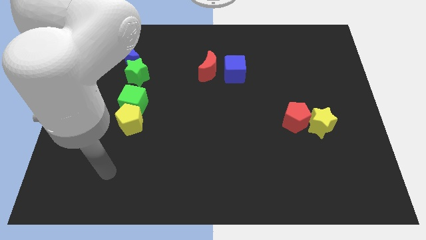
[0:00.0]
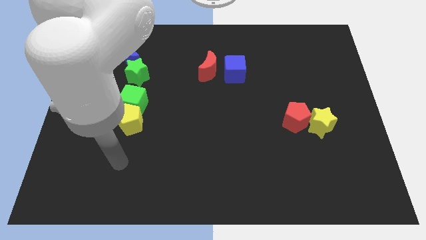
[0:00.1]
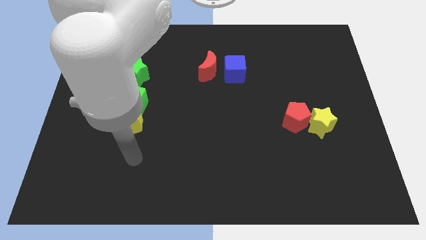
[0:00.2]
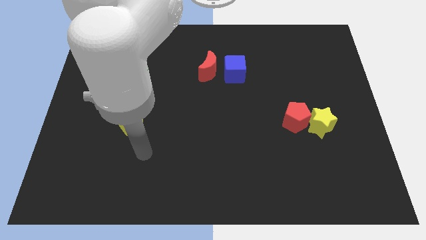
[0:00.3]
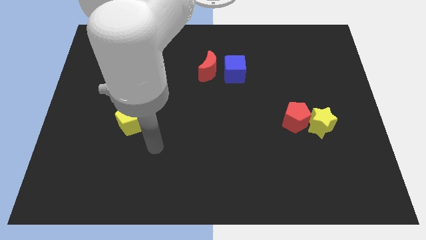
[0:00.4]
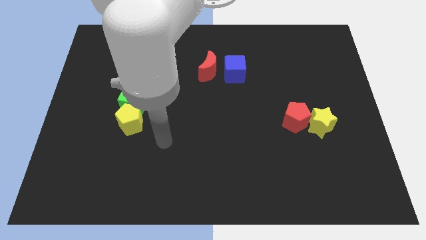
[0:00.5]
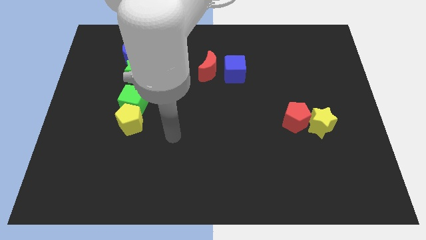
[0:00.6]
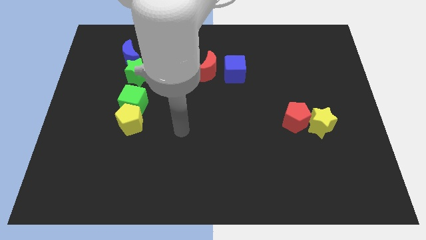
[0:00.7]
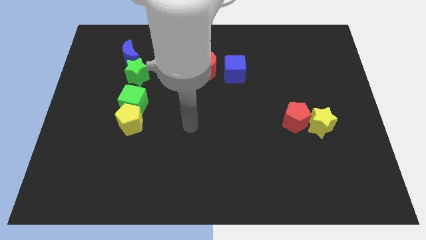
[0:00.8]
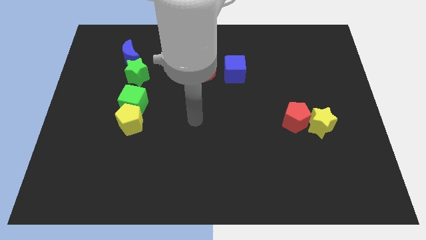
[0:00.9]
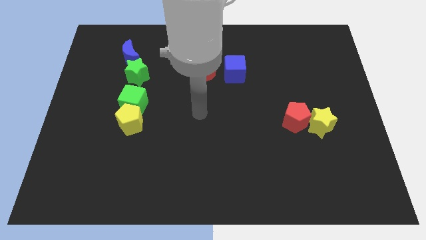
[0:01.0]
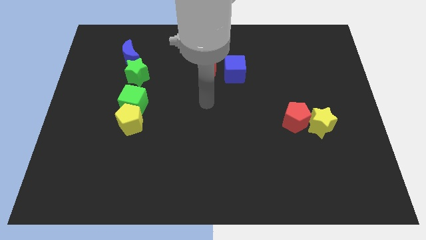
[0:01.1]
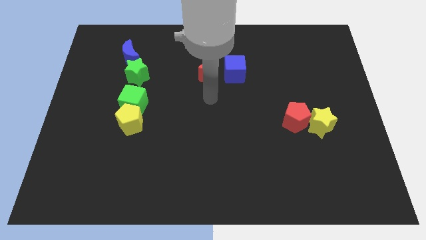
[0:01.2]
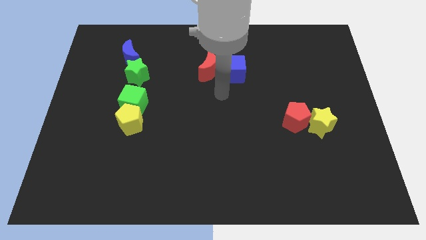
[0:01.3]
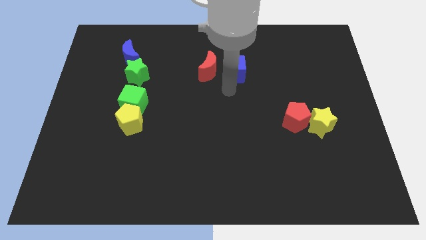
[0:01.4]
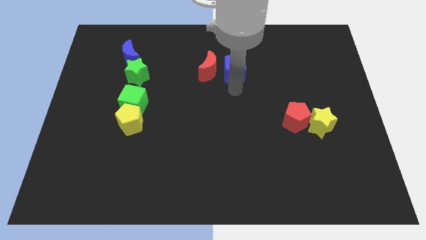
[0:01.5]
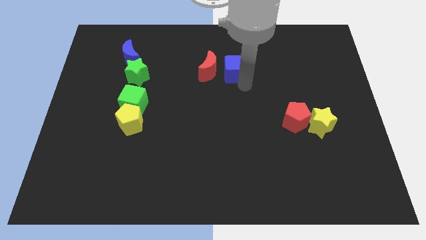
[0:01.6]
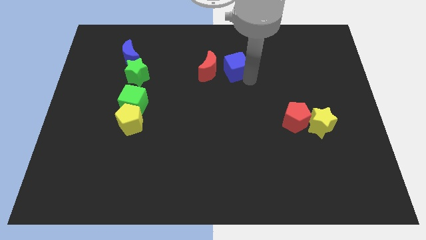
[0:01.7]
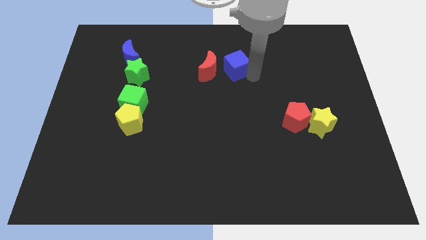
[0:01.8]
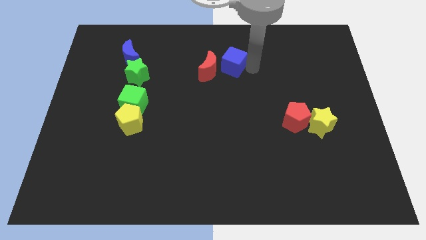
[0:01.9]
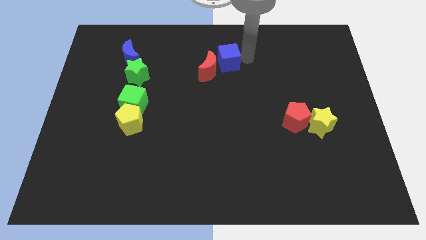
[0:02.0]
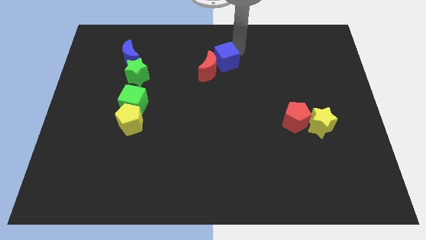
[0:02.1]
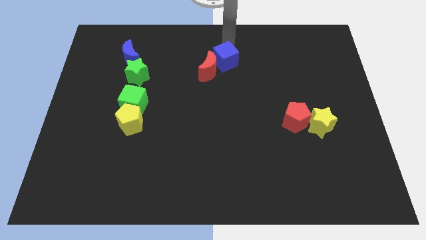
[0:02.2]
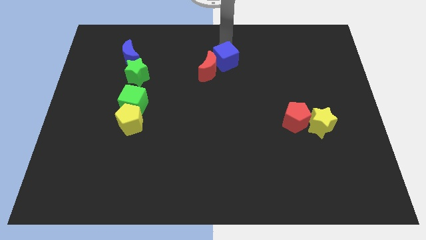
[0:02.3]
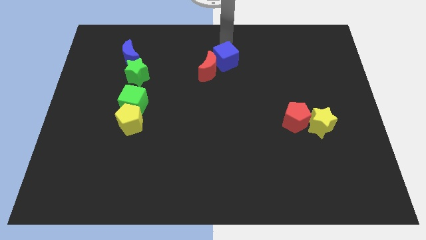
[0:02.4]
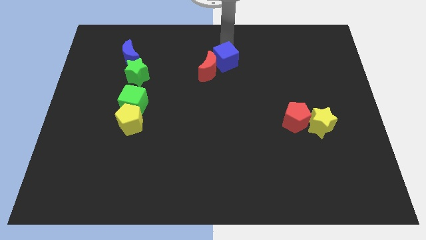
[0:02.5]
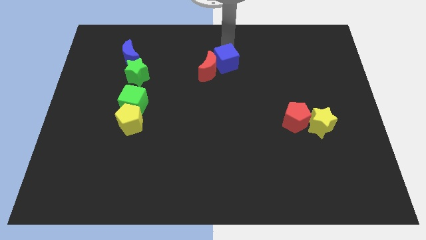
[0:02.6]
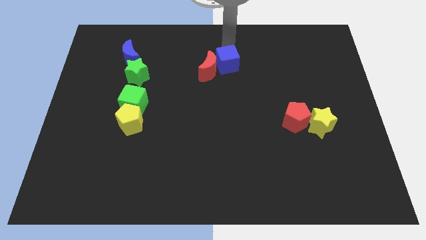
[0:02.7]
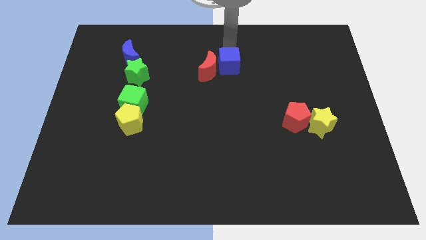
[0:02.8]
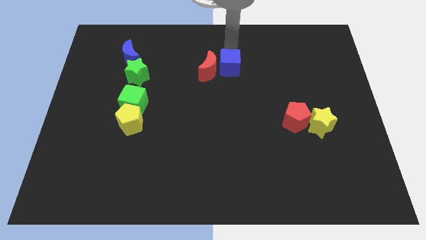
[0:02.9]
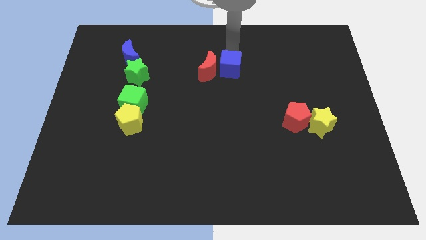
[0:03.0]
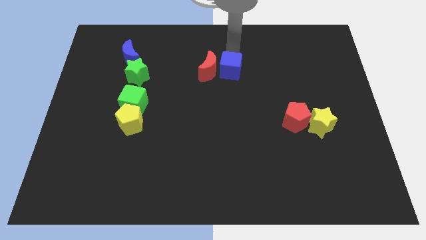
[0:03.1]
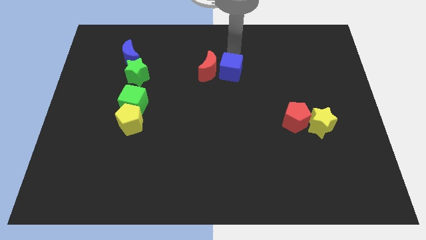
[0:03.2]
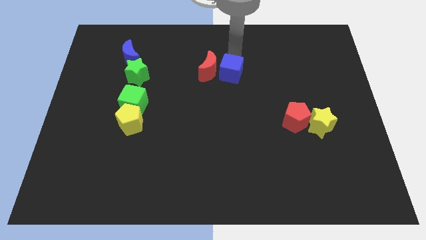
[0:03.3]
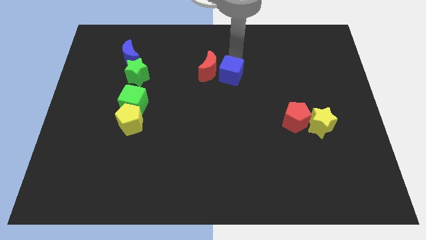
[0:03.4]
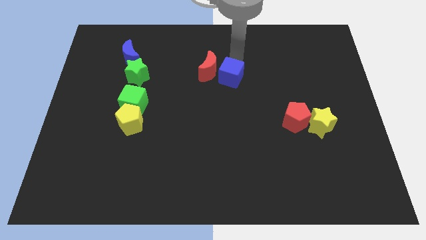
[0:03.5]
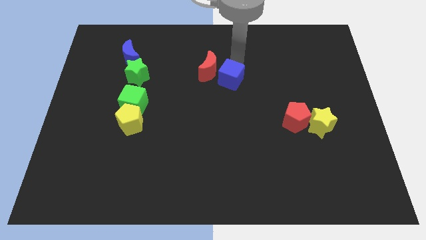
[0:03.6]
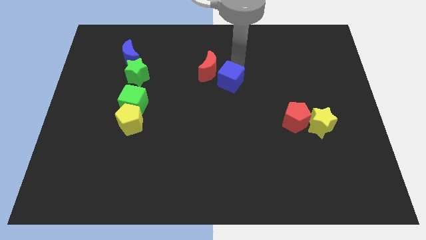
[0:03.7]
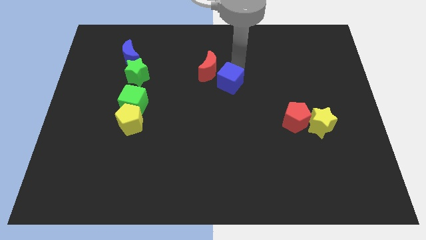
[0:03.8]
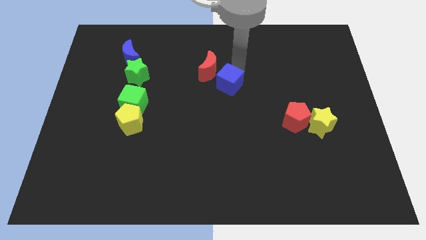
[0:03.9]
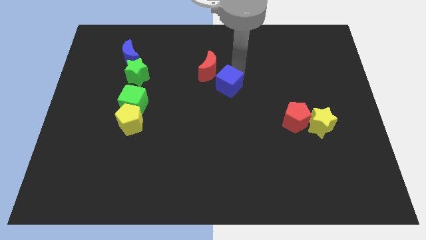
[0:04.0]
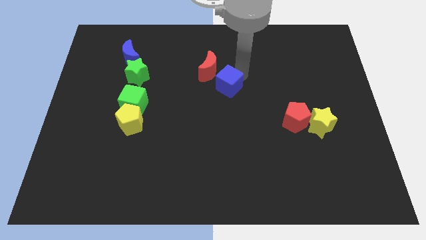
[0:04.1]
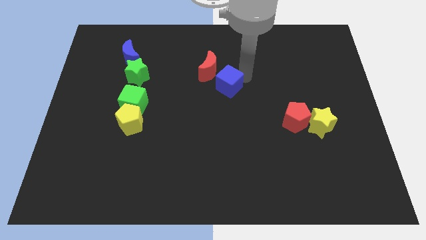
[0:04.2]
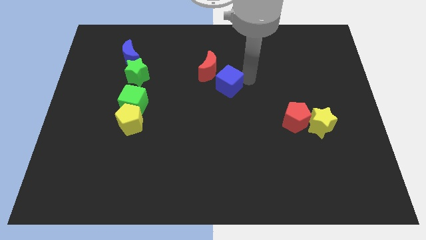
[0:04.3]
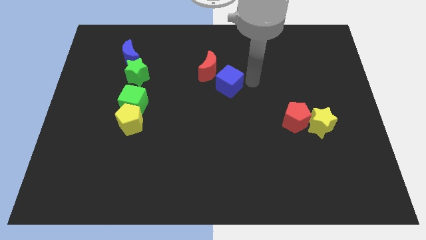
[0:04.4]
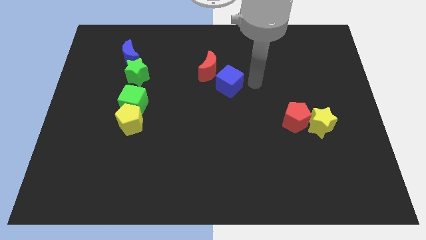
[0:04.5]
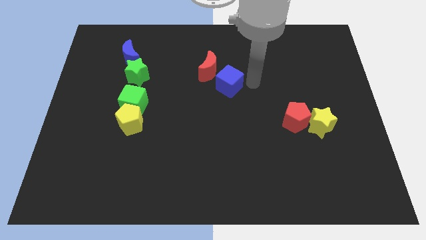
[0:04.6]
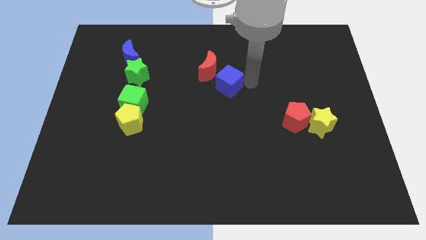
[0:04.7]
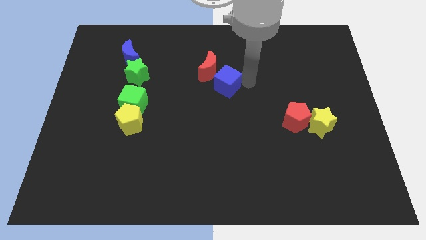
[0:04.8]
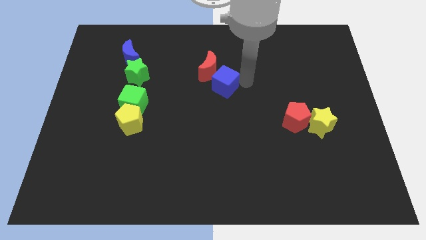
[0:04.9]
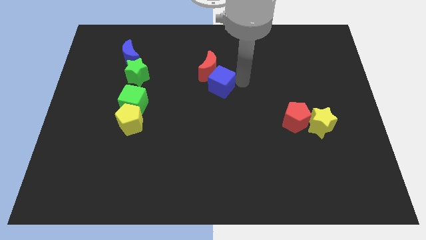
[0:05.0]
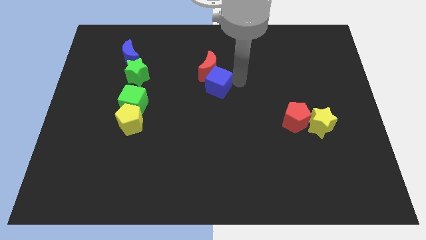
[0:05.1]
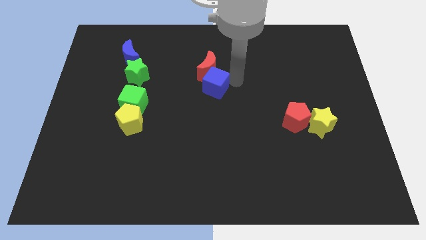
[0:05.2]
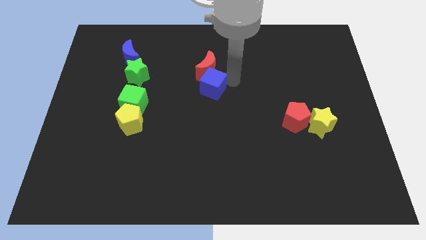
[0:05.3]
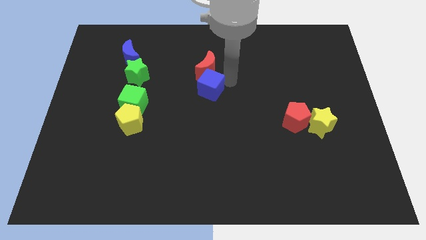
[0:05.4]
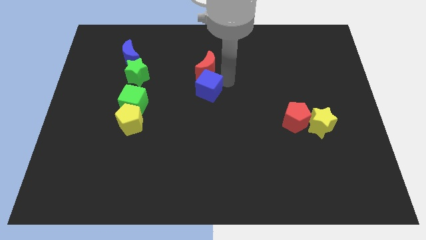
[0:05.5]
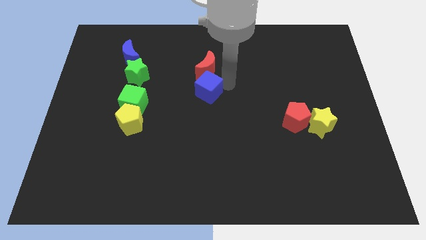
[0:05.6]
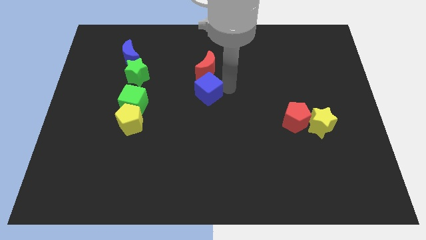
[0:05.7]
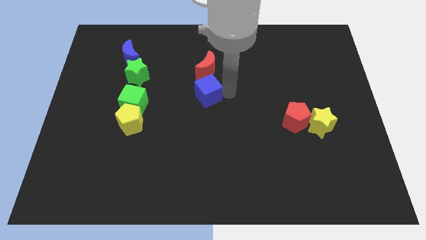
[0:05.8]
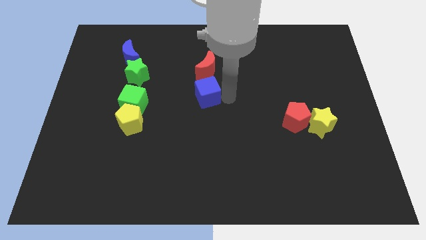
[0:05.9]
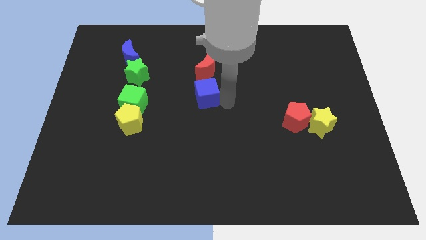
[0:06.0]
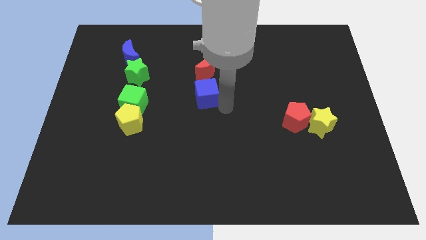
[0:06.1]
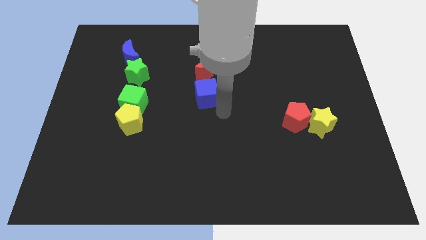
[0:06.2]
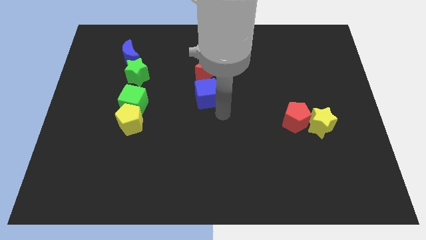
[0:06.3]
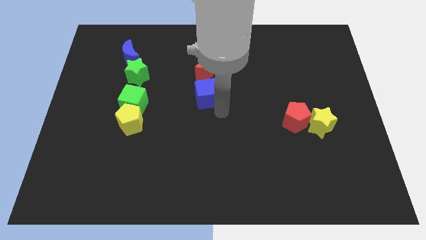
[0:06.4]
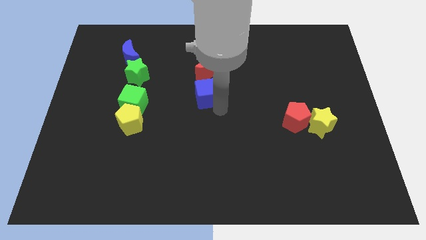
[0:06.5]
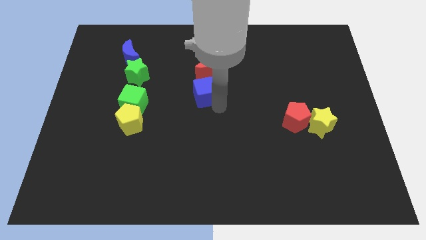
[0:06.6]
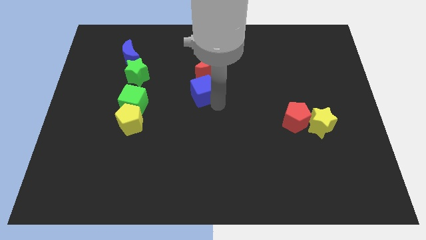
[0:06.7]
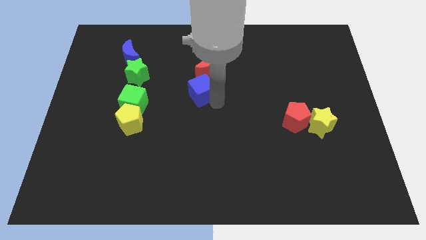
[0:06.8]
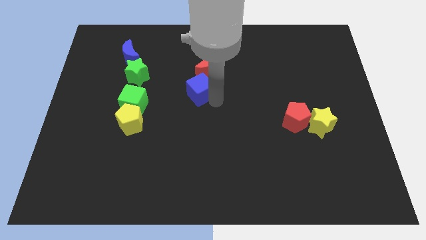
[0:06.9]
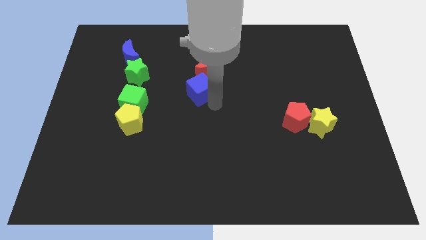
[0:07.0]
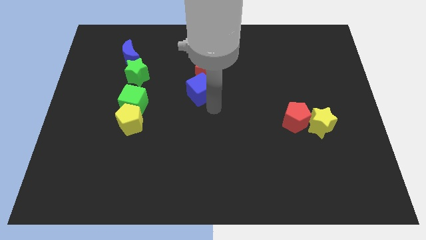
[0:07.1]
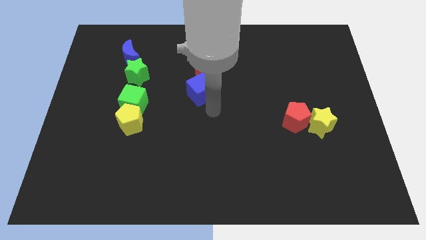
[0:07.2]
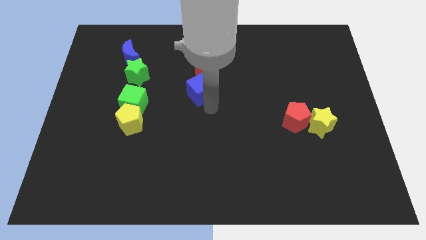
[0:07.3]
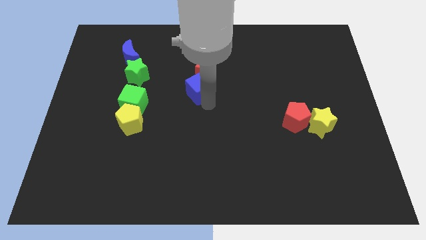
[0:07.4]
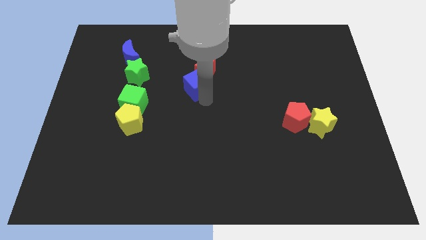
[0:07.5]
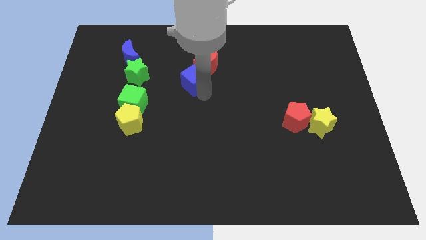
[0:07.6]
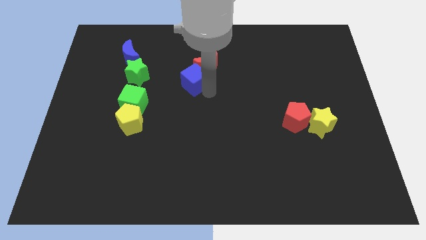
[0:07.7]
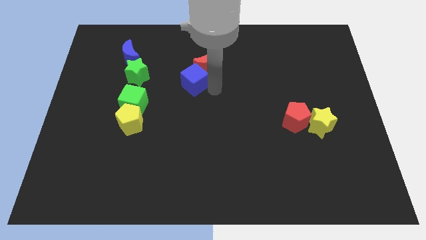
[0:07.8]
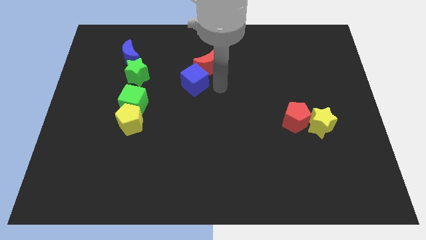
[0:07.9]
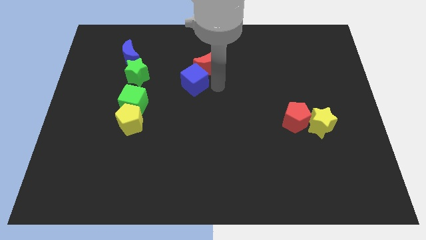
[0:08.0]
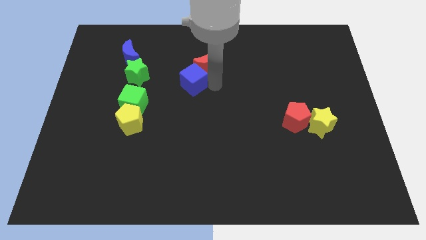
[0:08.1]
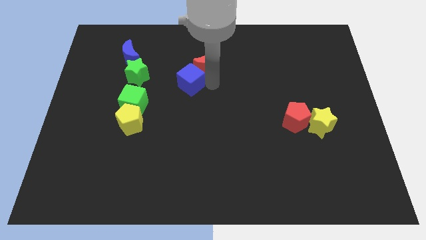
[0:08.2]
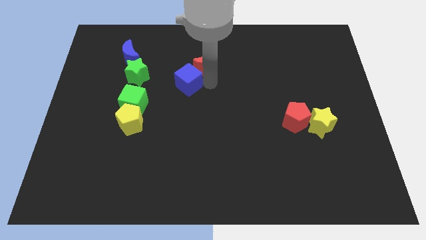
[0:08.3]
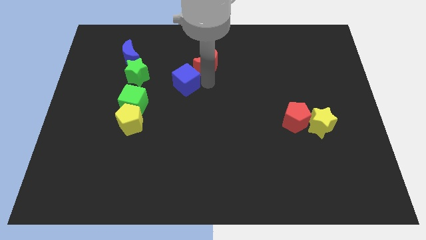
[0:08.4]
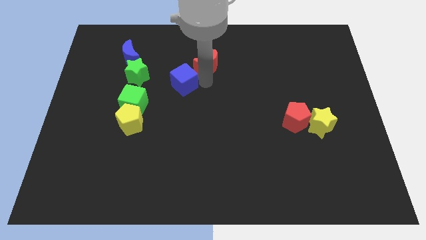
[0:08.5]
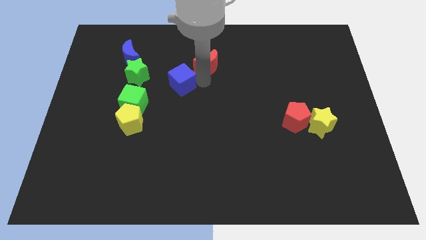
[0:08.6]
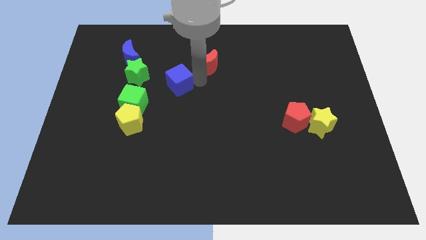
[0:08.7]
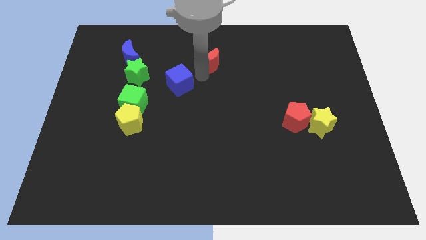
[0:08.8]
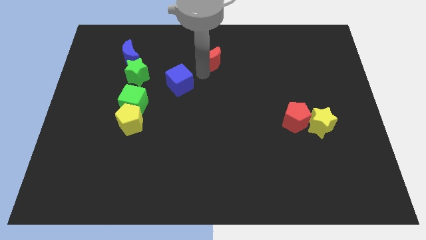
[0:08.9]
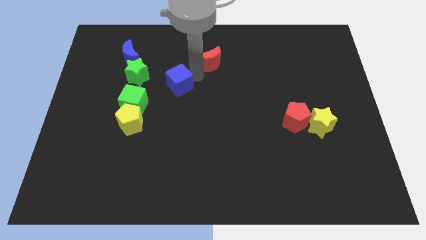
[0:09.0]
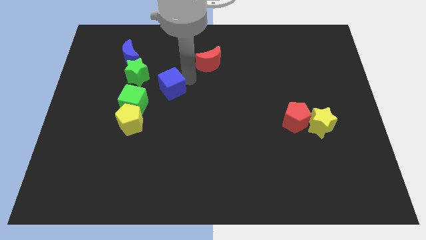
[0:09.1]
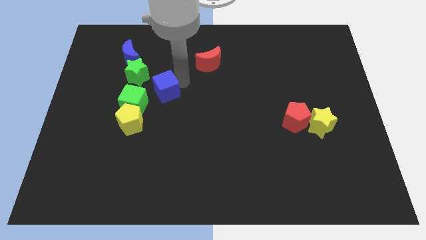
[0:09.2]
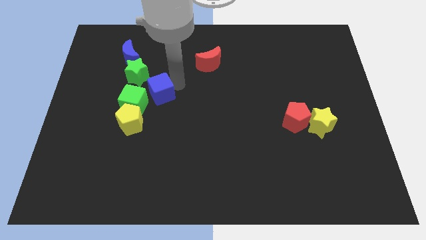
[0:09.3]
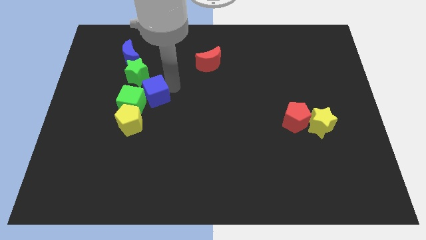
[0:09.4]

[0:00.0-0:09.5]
push the blue cube to the green cube
